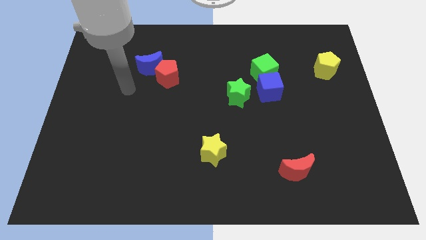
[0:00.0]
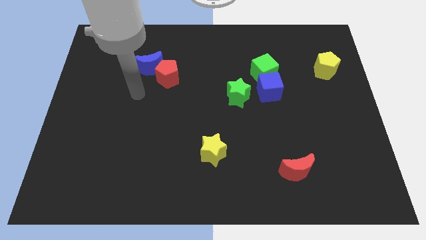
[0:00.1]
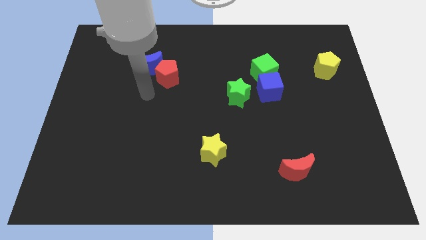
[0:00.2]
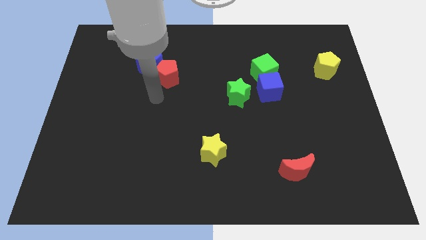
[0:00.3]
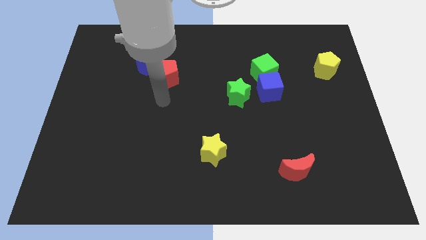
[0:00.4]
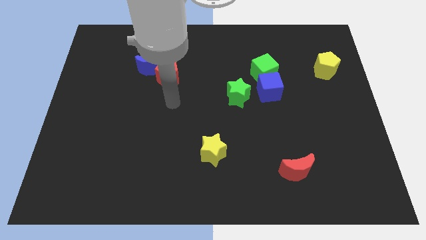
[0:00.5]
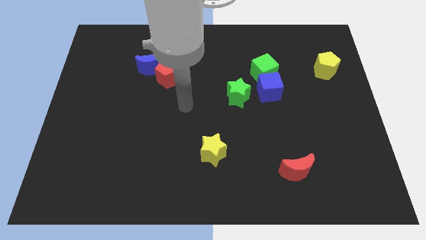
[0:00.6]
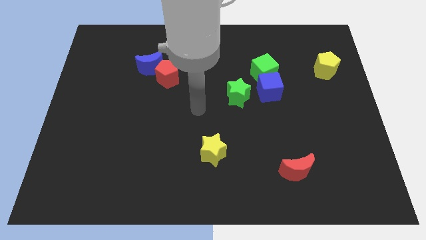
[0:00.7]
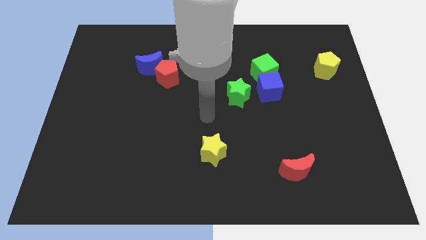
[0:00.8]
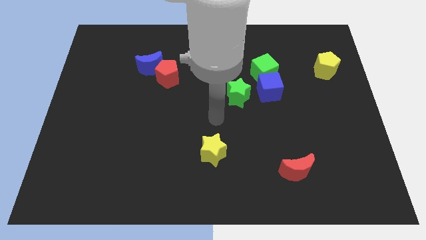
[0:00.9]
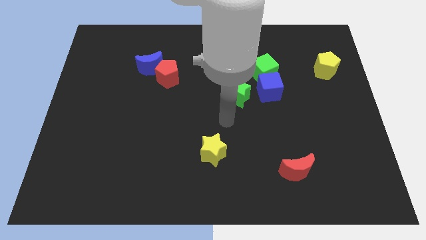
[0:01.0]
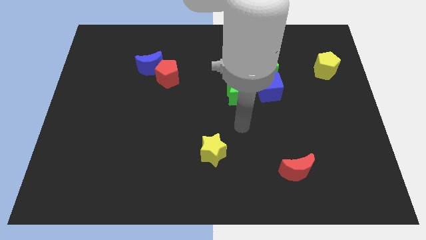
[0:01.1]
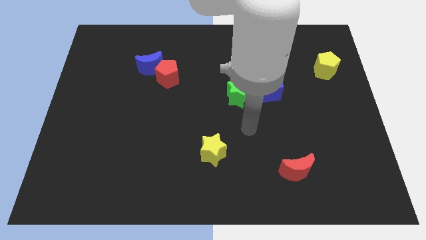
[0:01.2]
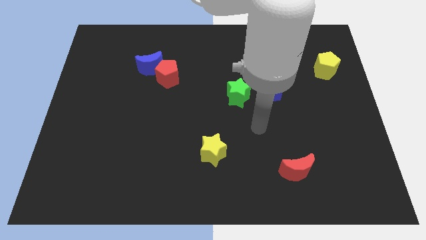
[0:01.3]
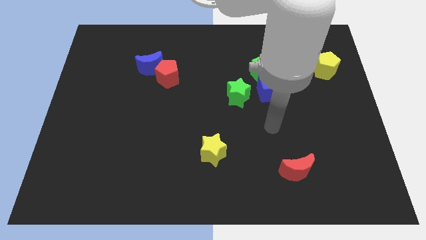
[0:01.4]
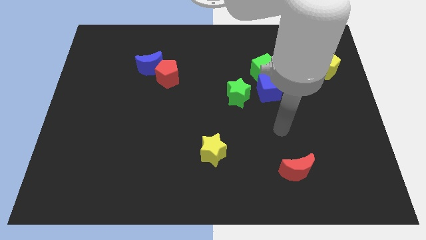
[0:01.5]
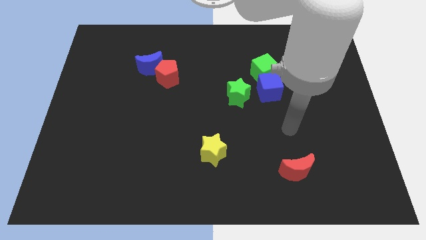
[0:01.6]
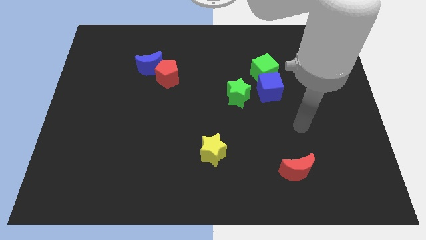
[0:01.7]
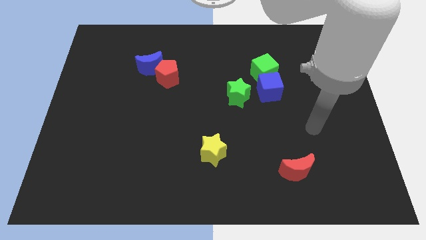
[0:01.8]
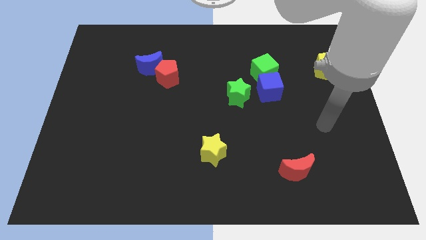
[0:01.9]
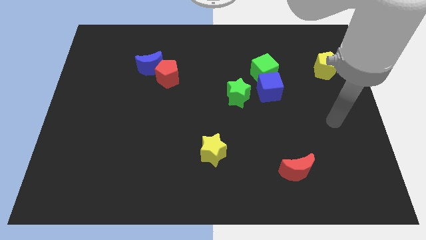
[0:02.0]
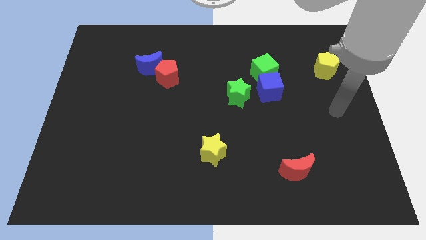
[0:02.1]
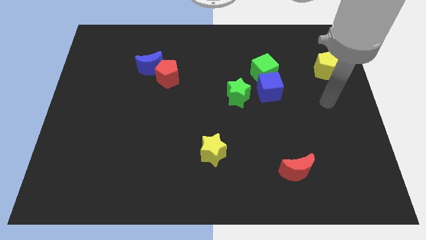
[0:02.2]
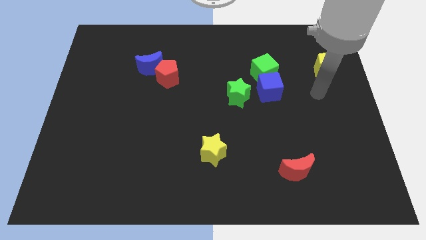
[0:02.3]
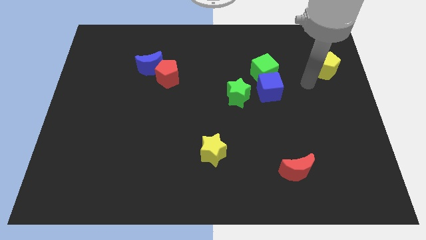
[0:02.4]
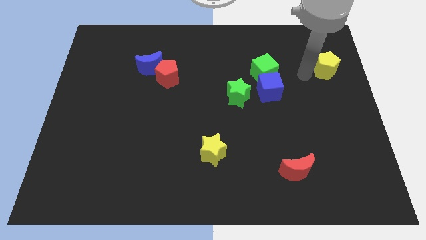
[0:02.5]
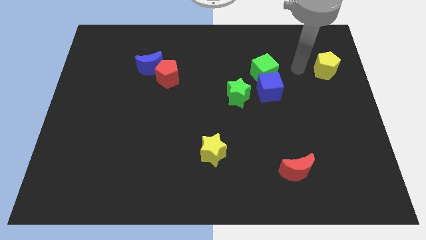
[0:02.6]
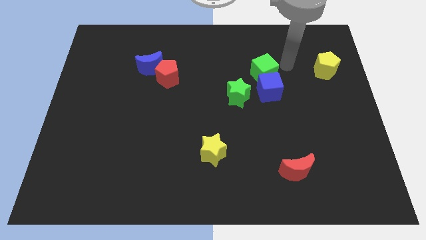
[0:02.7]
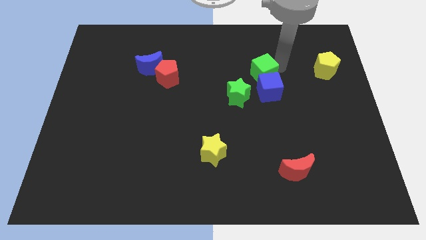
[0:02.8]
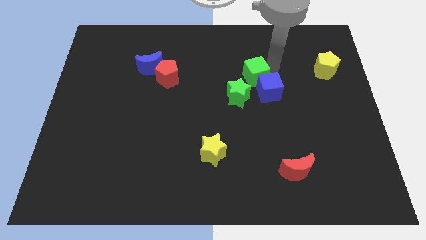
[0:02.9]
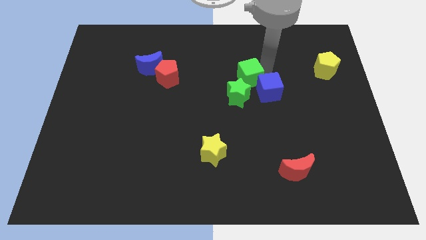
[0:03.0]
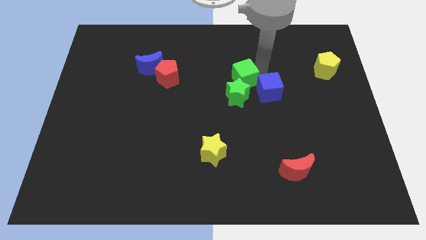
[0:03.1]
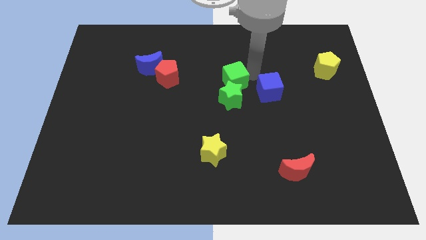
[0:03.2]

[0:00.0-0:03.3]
move the green cube somewhat down and to the left

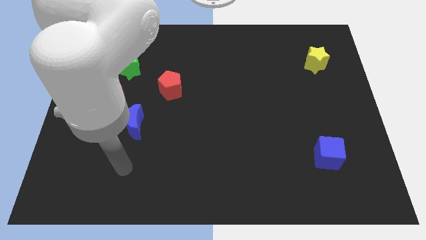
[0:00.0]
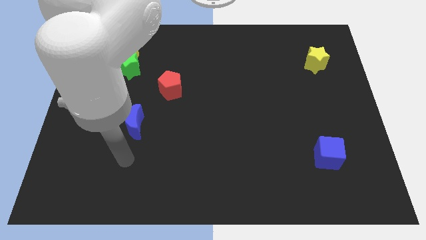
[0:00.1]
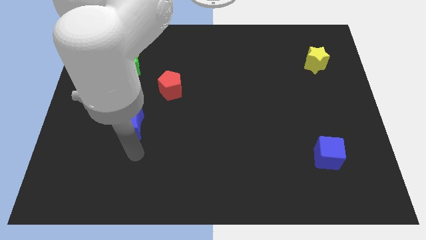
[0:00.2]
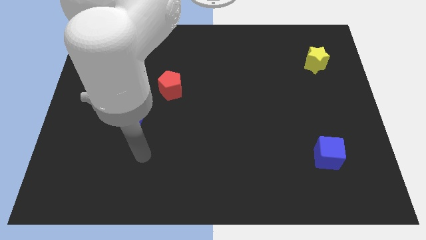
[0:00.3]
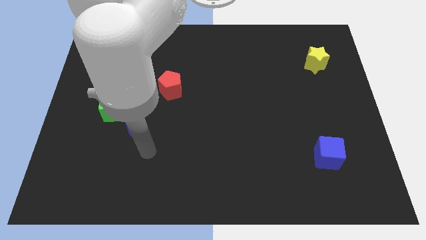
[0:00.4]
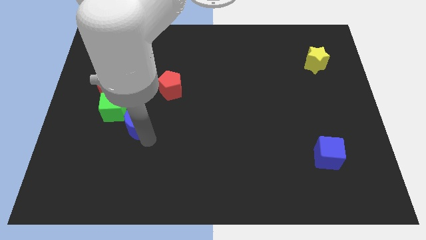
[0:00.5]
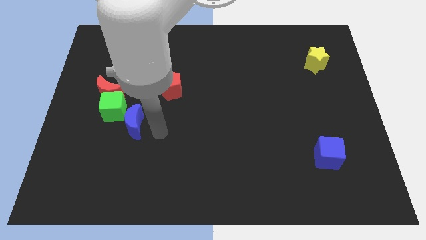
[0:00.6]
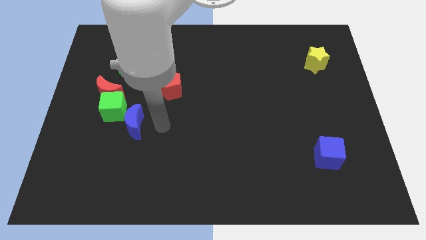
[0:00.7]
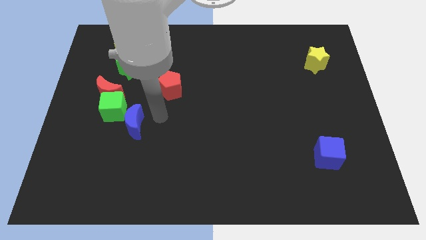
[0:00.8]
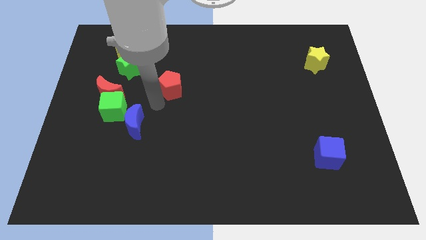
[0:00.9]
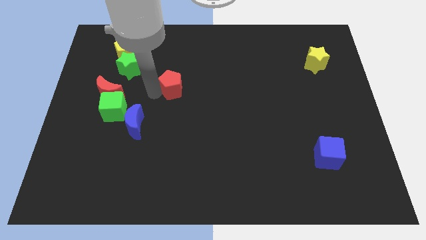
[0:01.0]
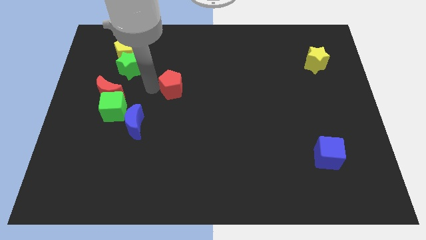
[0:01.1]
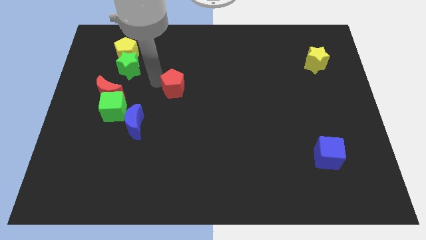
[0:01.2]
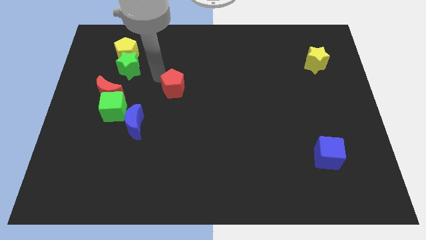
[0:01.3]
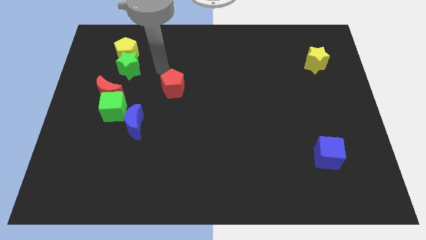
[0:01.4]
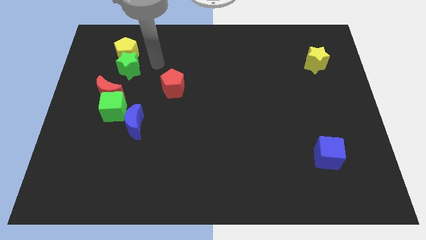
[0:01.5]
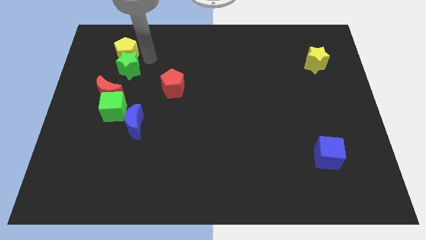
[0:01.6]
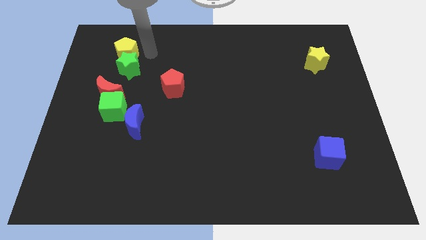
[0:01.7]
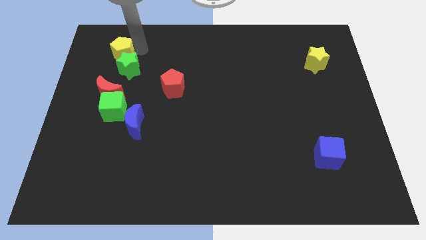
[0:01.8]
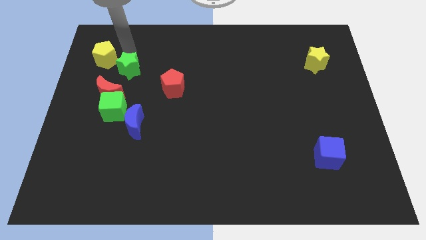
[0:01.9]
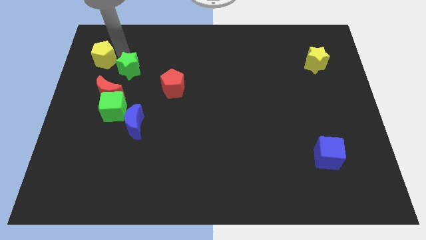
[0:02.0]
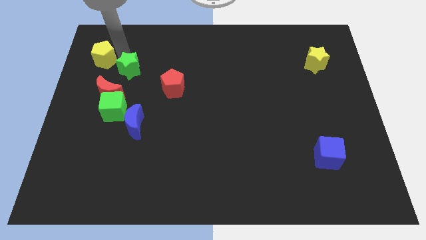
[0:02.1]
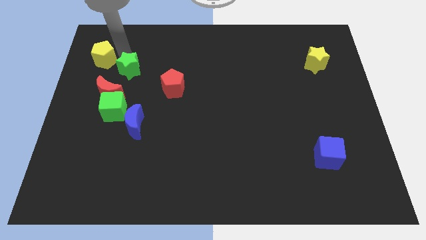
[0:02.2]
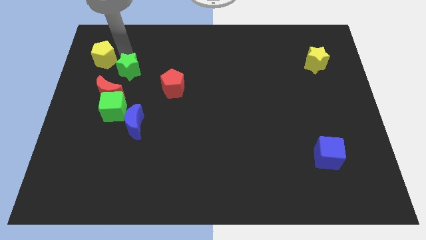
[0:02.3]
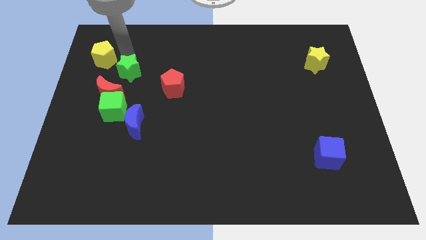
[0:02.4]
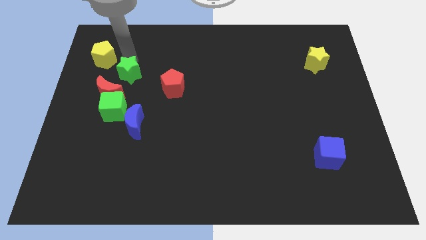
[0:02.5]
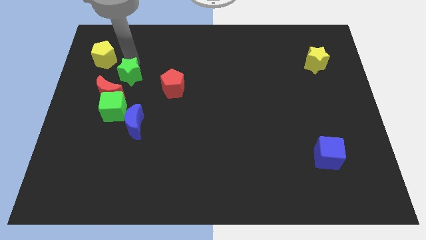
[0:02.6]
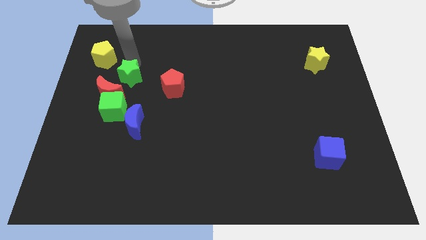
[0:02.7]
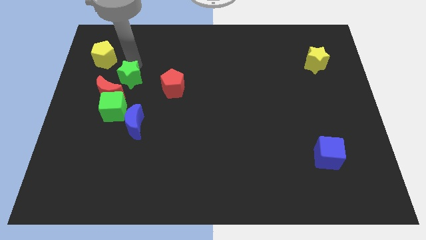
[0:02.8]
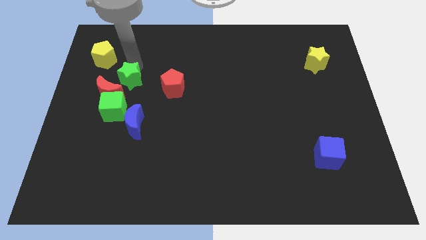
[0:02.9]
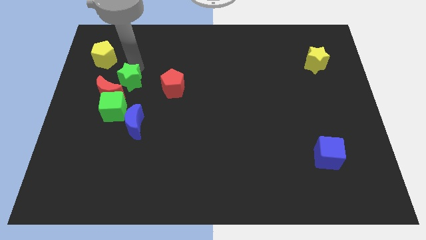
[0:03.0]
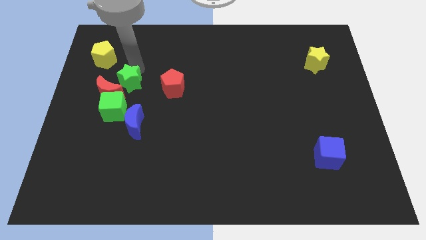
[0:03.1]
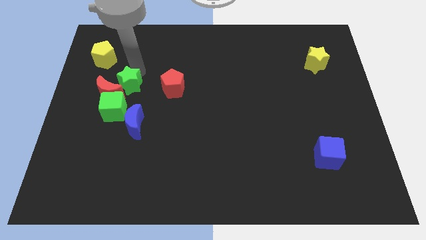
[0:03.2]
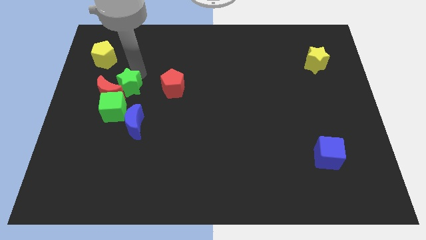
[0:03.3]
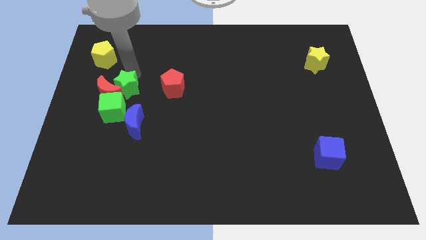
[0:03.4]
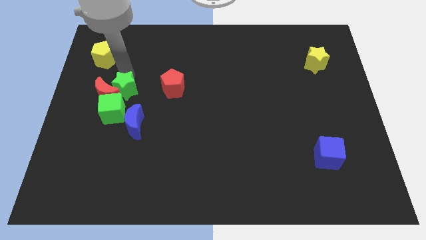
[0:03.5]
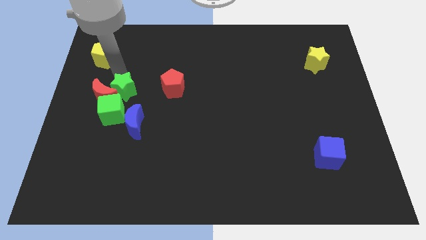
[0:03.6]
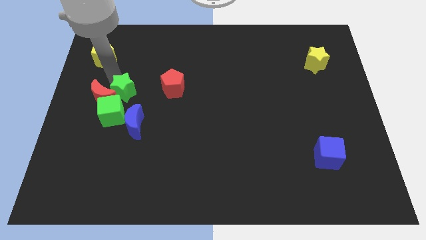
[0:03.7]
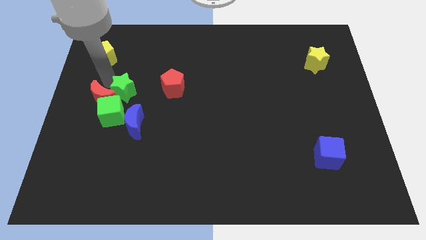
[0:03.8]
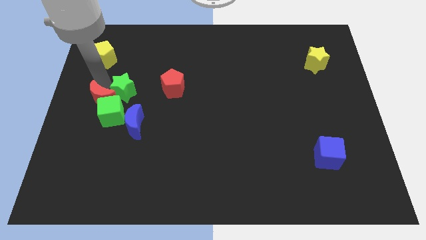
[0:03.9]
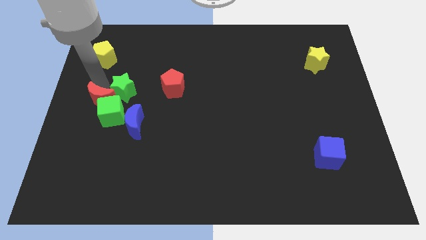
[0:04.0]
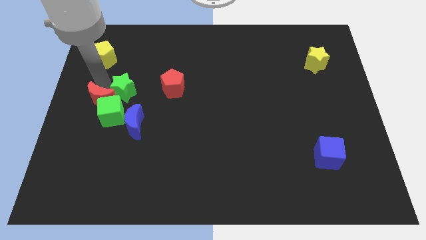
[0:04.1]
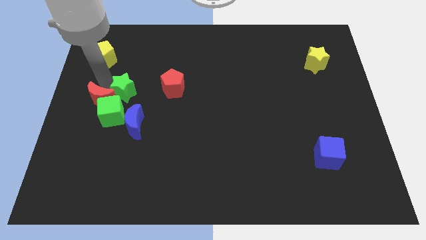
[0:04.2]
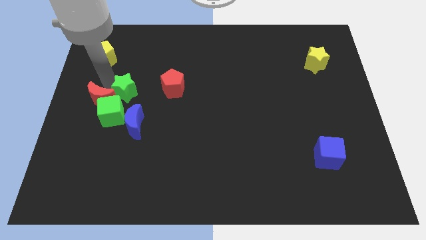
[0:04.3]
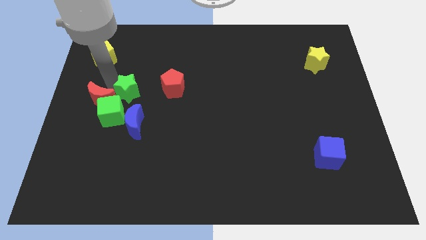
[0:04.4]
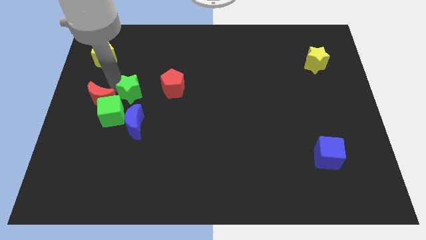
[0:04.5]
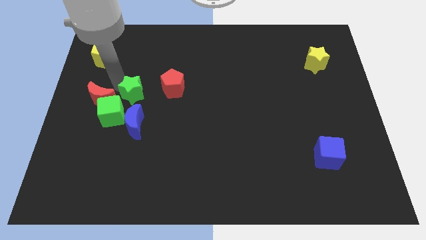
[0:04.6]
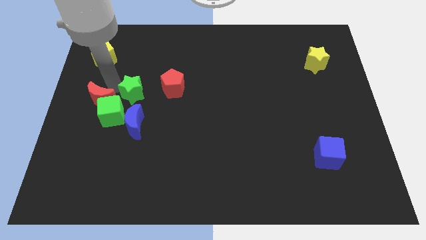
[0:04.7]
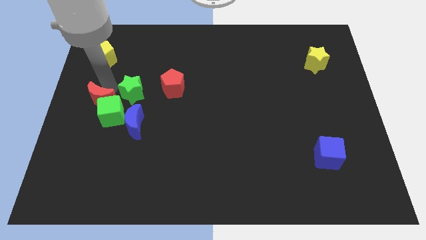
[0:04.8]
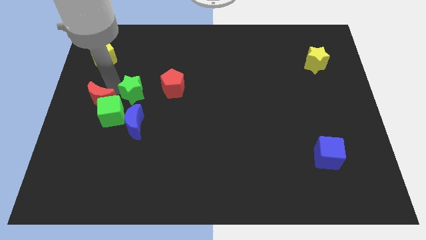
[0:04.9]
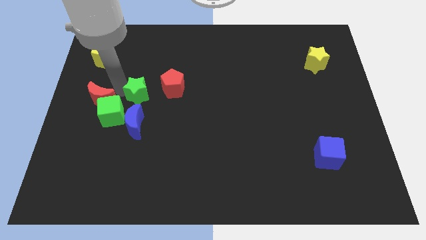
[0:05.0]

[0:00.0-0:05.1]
push the green star down and to the right somewhat
